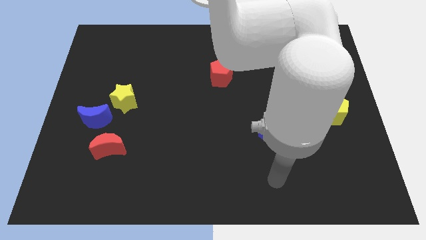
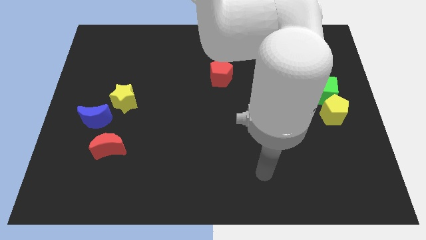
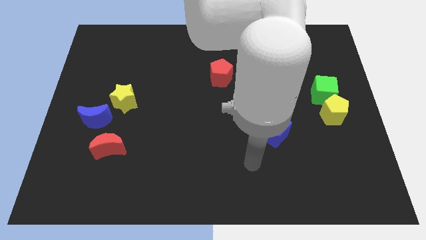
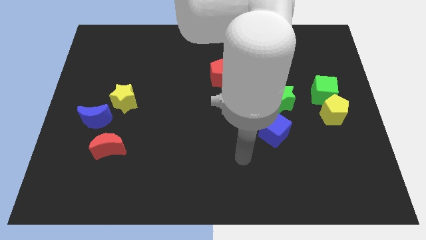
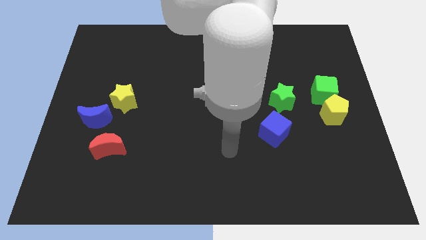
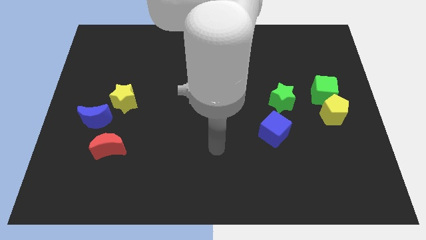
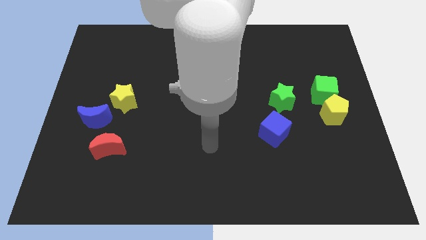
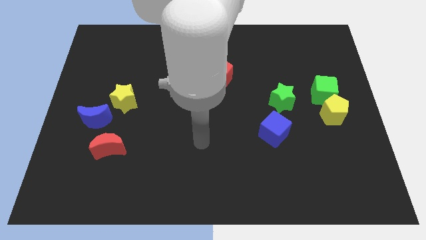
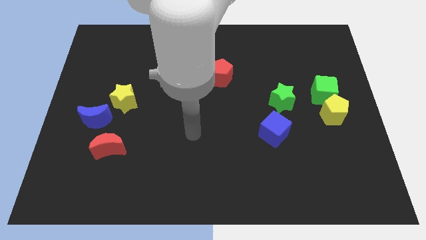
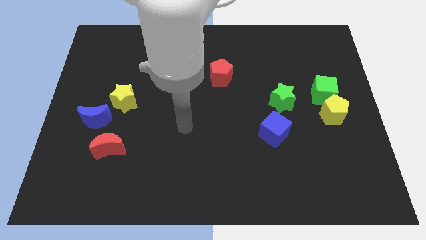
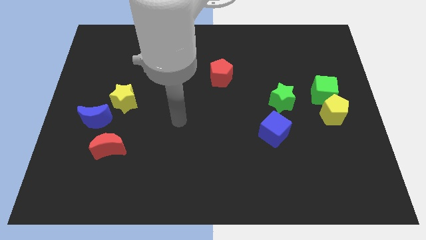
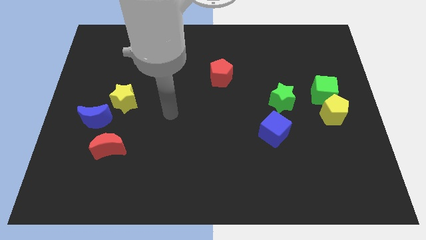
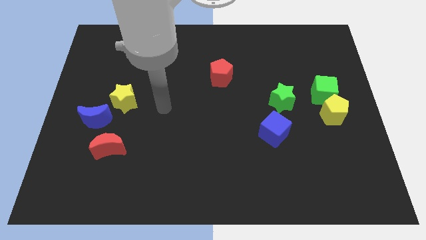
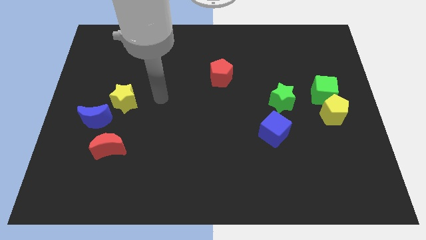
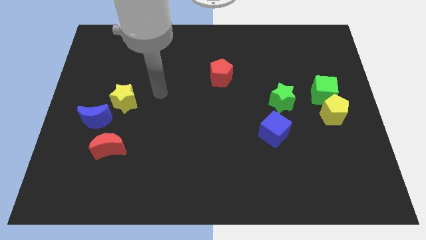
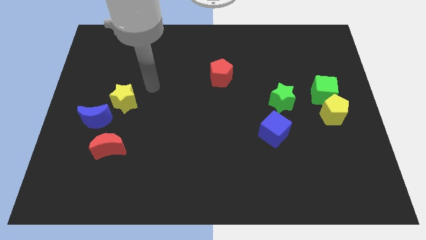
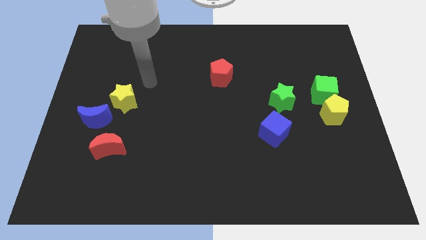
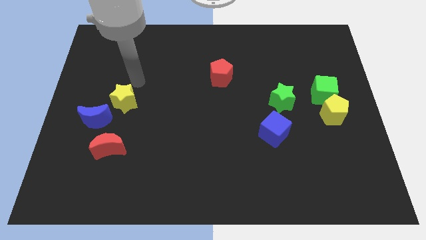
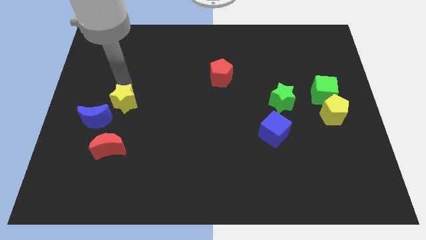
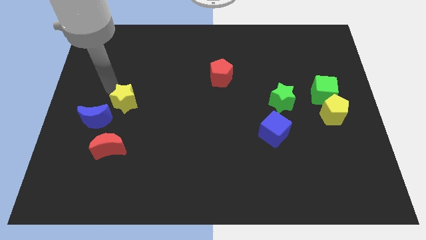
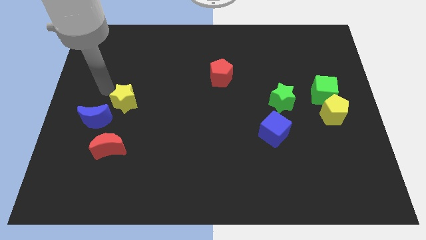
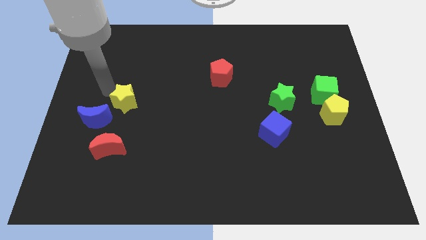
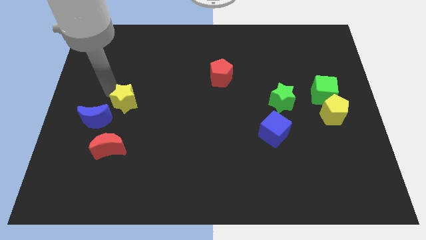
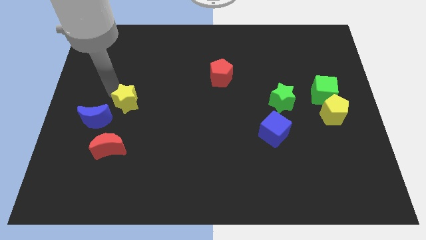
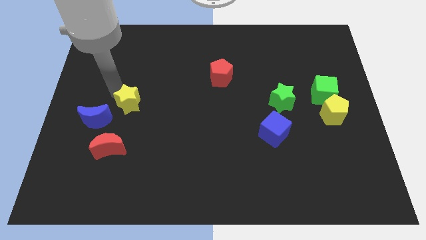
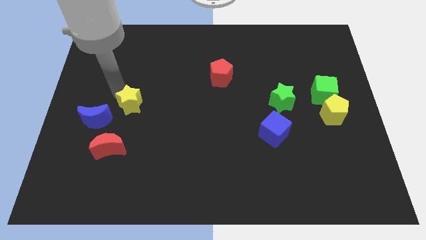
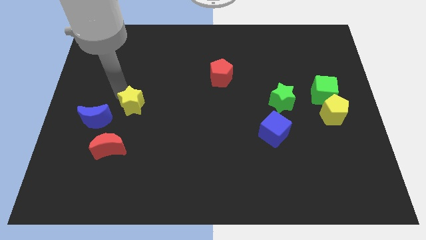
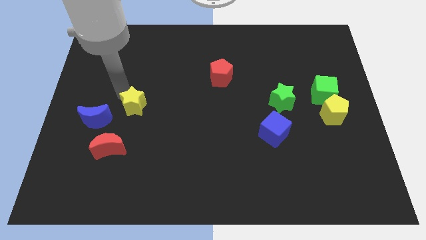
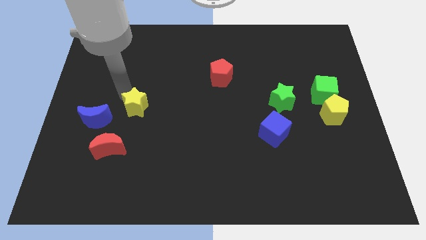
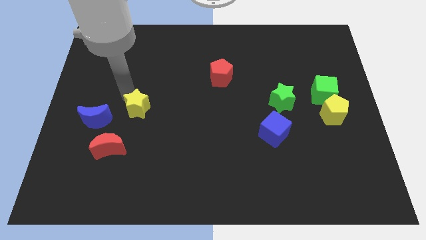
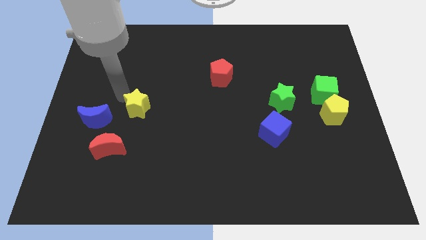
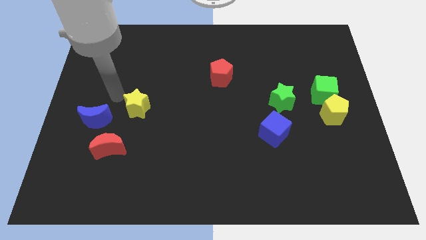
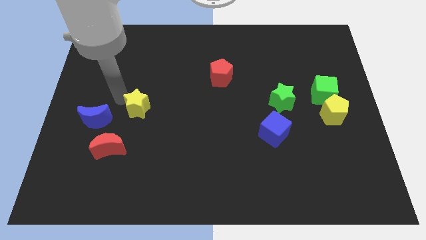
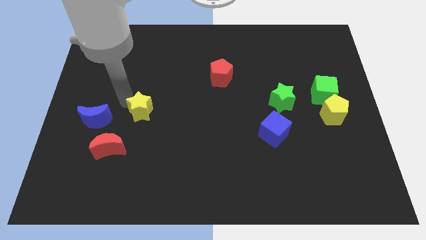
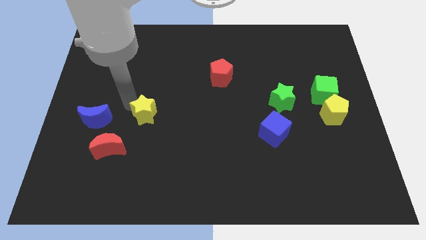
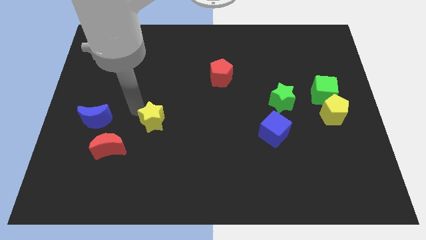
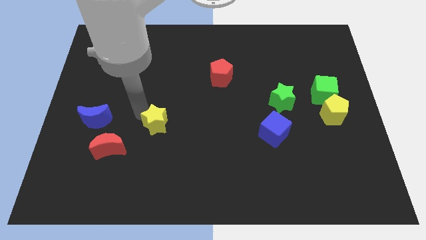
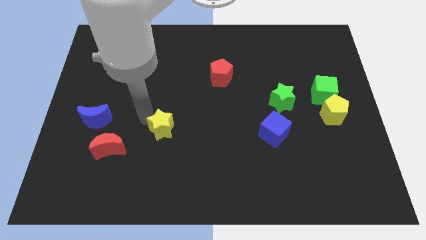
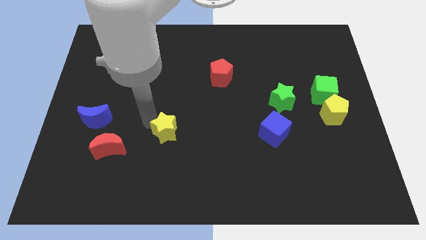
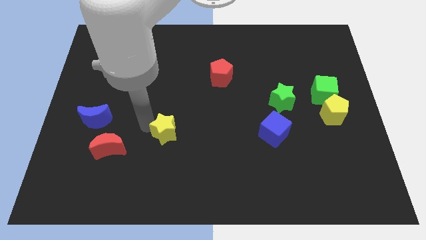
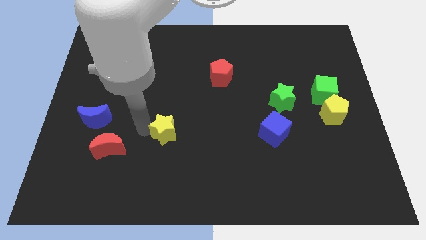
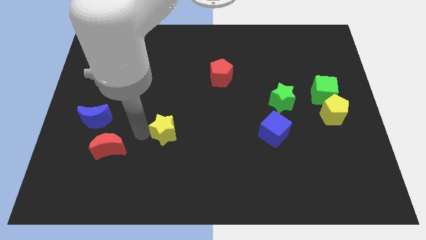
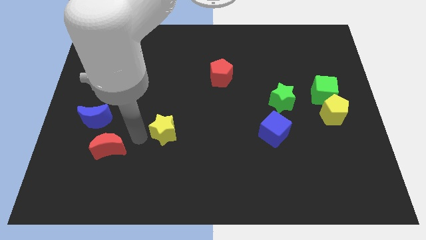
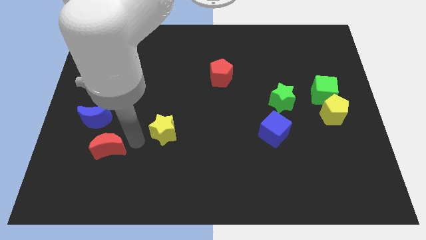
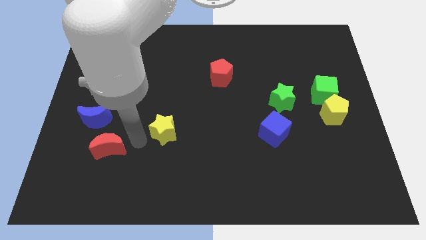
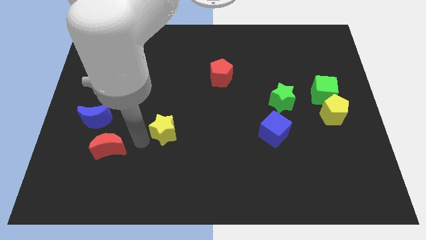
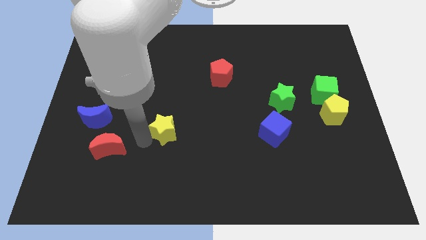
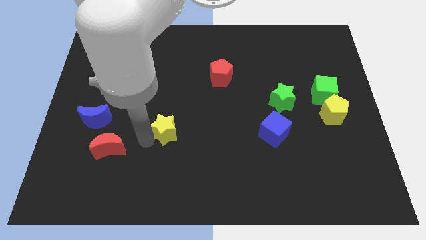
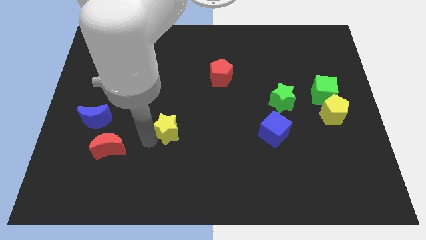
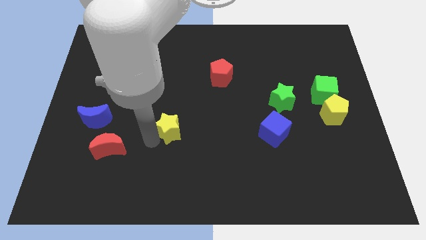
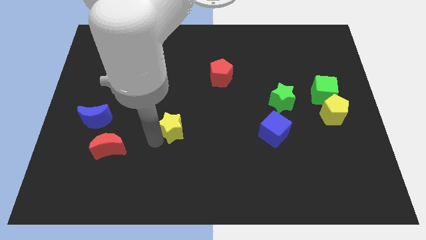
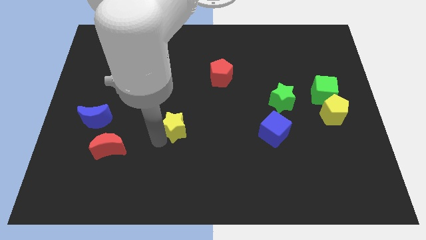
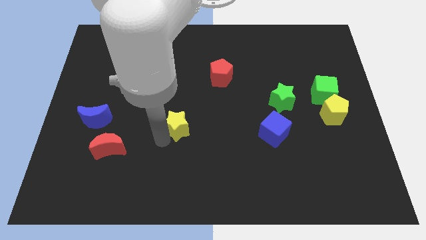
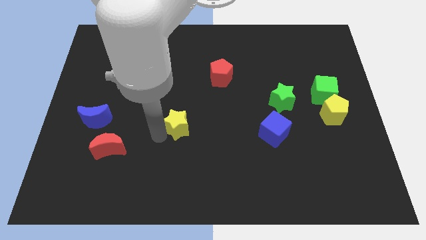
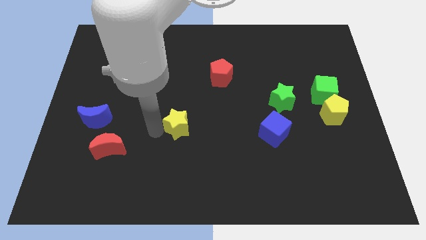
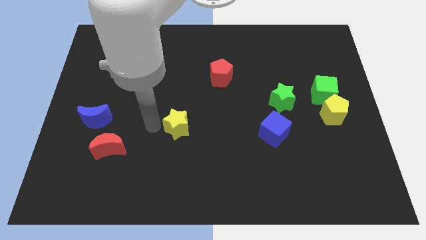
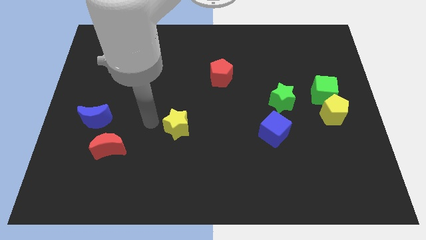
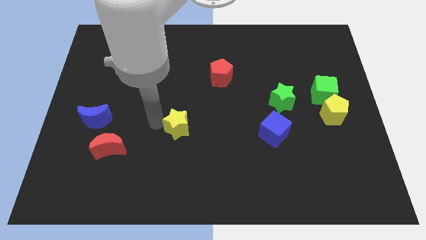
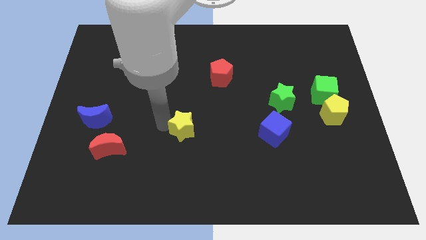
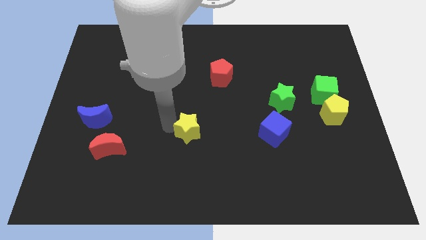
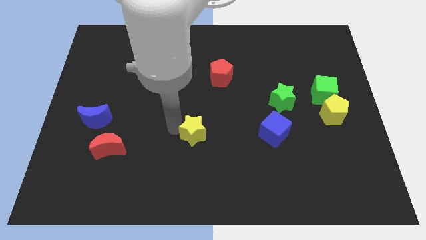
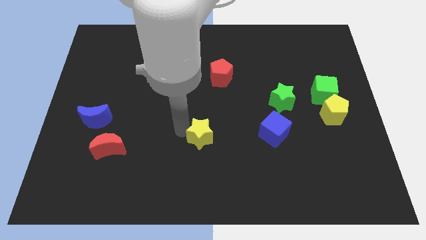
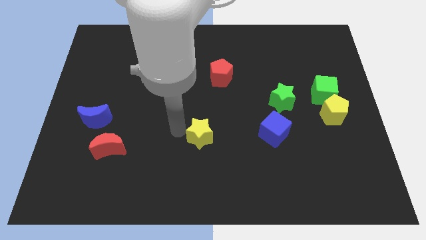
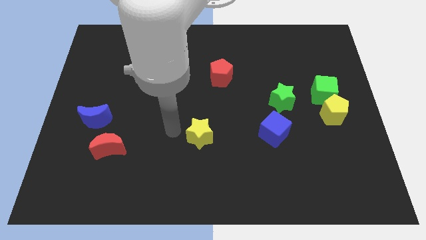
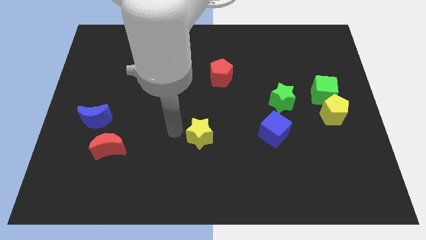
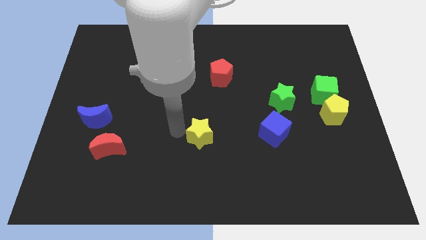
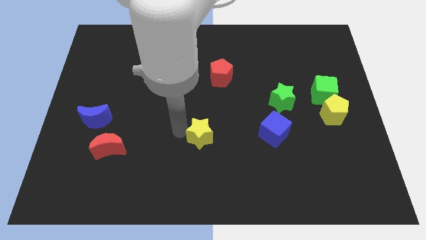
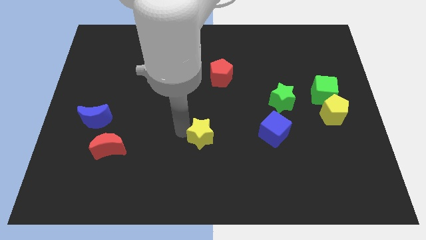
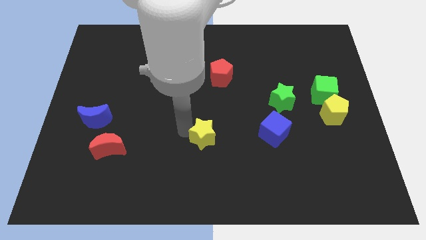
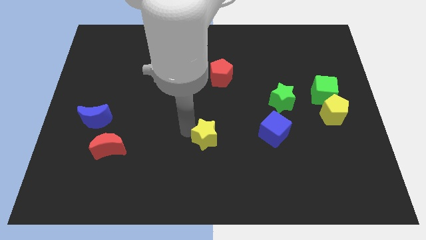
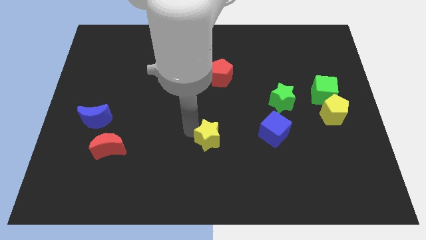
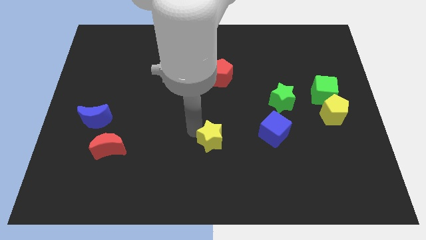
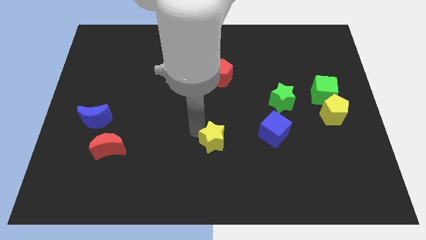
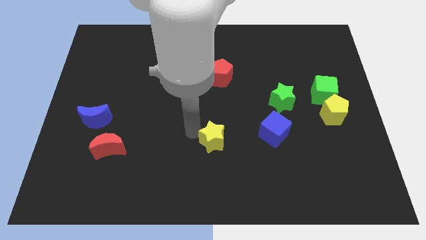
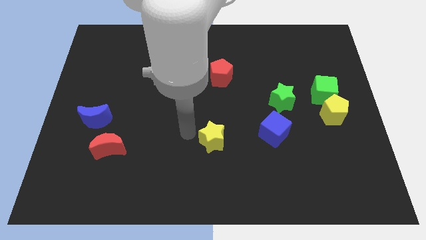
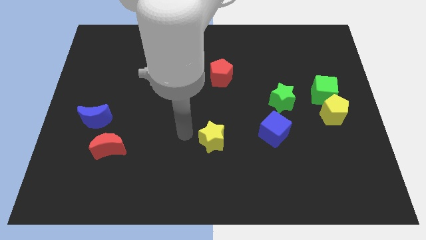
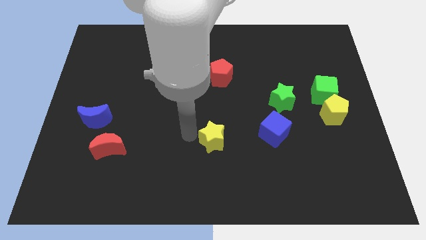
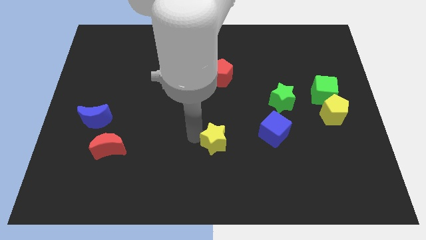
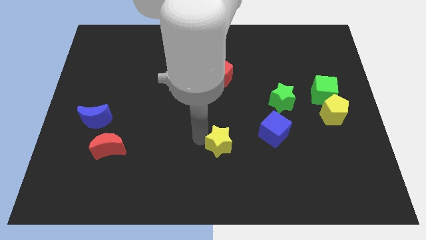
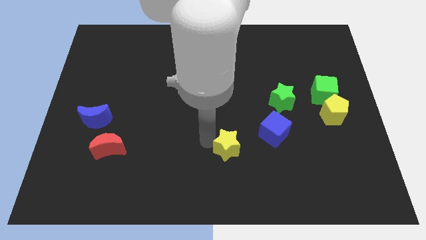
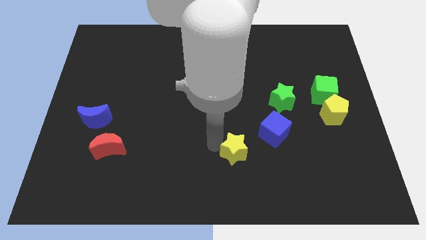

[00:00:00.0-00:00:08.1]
move the yellow star diagonally down and to the left of the blue cube
